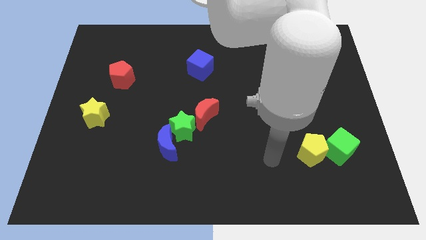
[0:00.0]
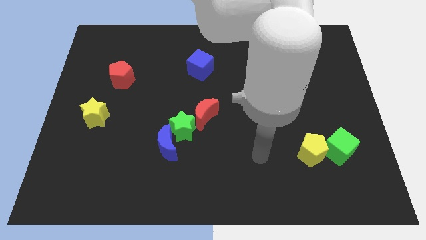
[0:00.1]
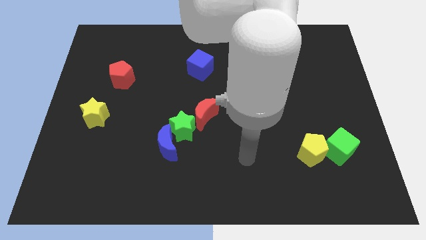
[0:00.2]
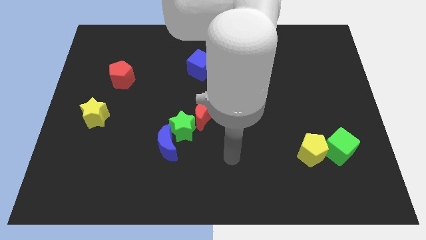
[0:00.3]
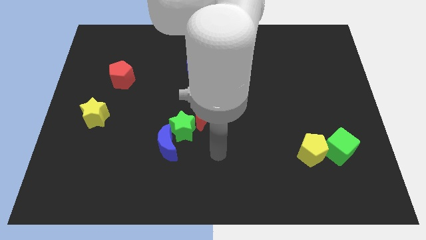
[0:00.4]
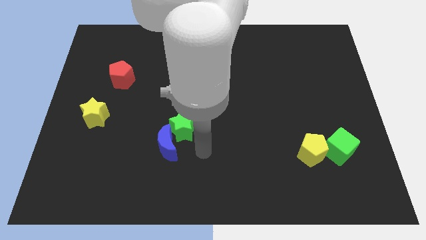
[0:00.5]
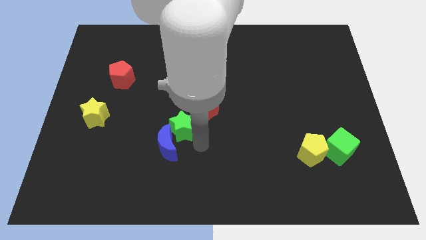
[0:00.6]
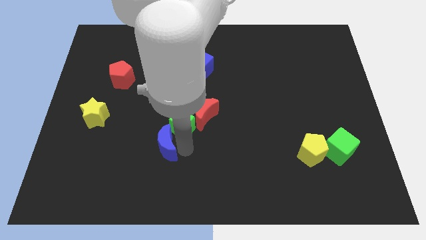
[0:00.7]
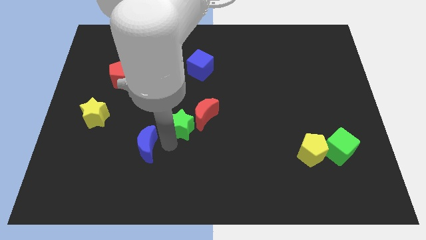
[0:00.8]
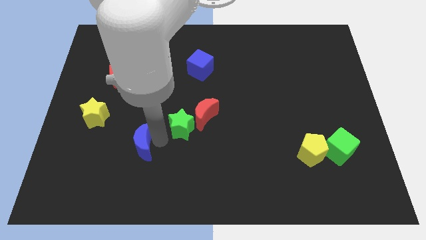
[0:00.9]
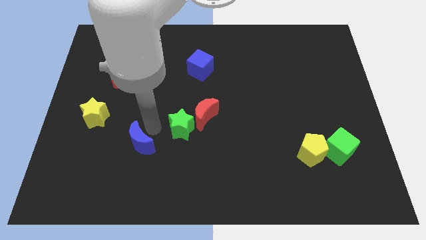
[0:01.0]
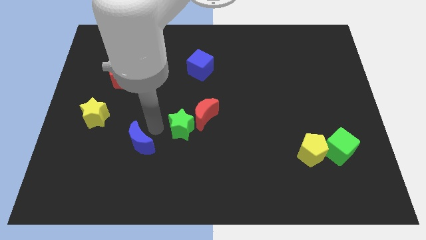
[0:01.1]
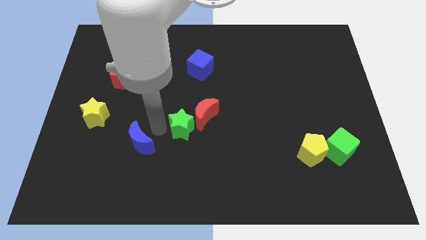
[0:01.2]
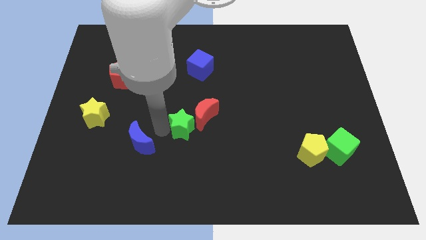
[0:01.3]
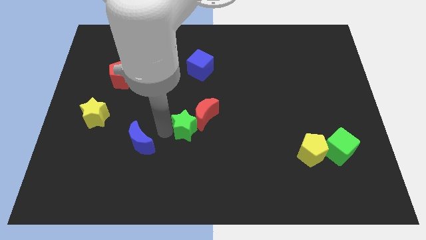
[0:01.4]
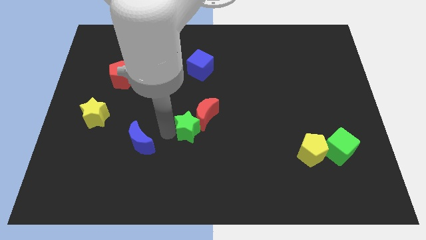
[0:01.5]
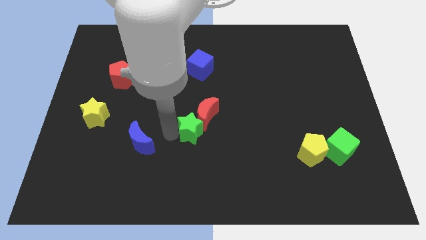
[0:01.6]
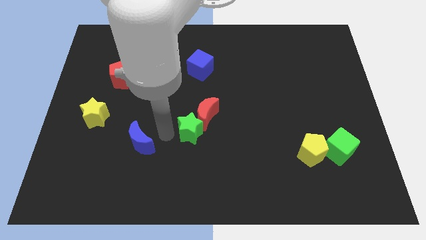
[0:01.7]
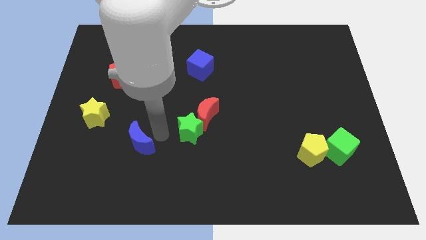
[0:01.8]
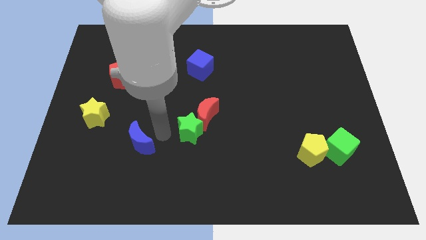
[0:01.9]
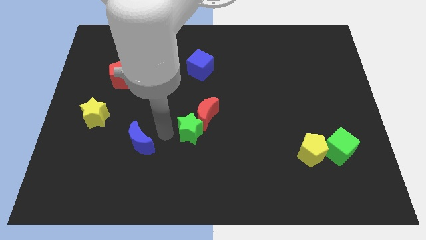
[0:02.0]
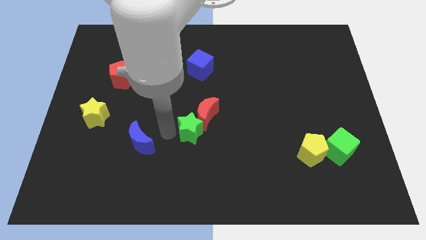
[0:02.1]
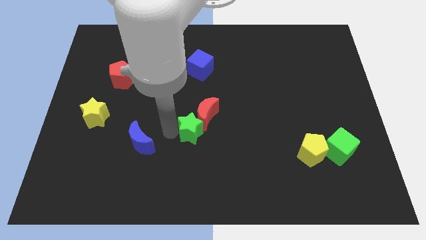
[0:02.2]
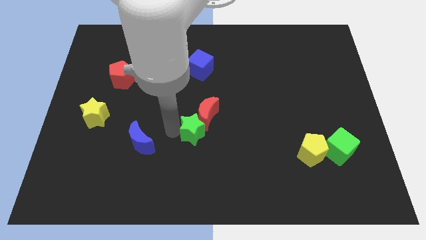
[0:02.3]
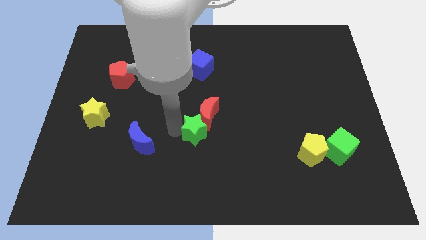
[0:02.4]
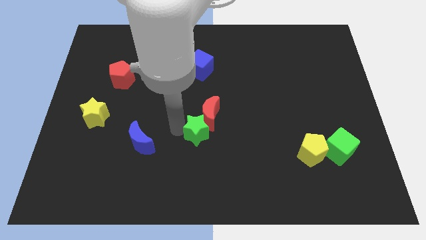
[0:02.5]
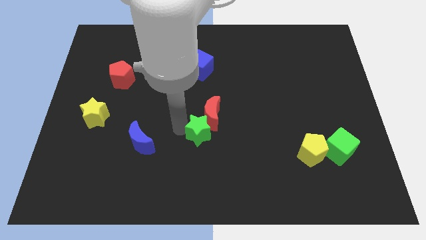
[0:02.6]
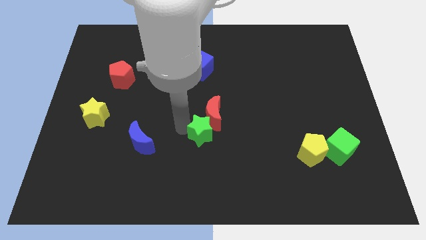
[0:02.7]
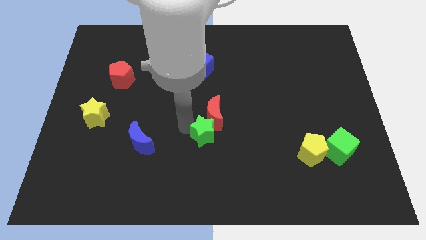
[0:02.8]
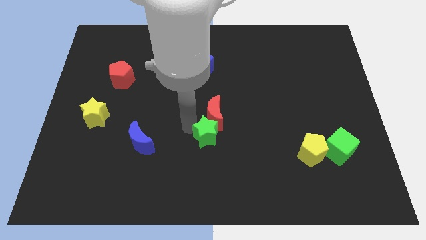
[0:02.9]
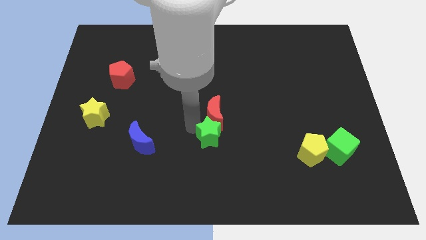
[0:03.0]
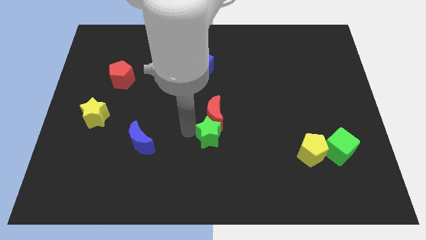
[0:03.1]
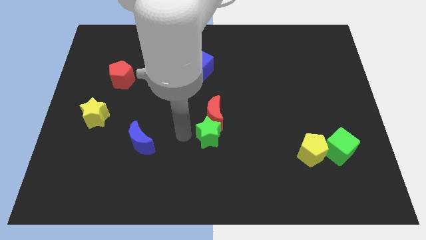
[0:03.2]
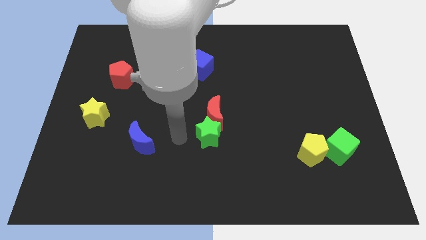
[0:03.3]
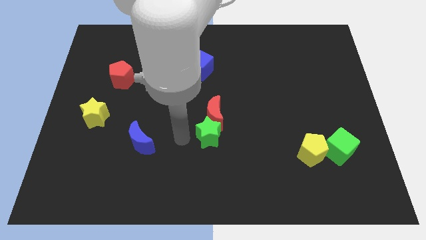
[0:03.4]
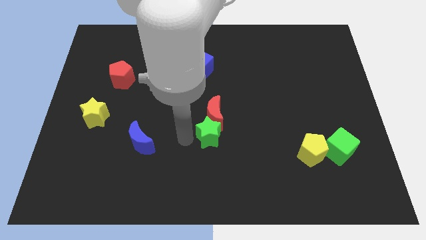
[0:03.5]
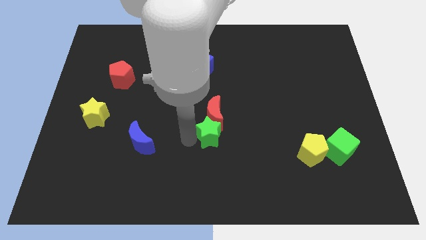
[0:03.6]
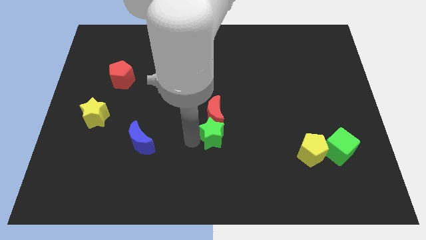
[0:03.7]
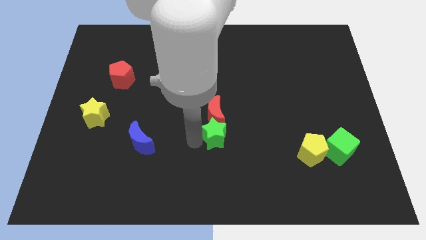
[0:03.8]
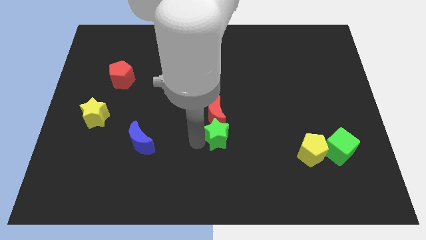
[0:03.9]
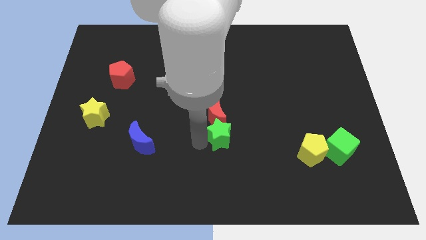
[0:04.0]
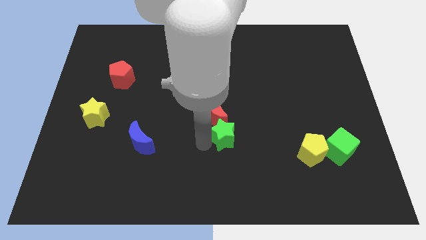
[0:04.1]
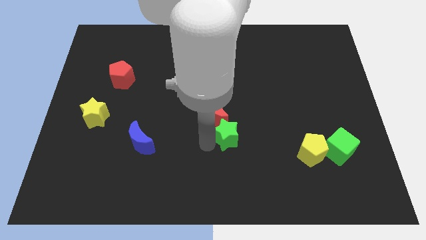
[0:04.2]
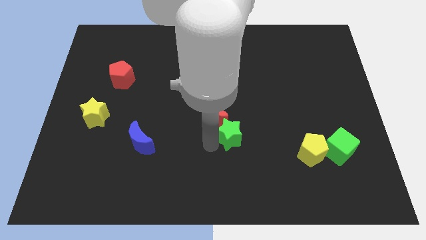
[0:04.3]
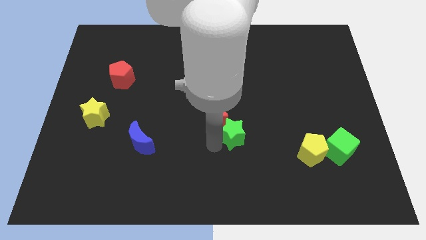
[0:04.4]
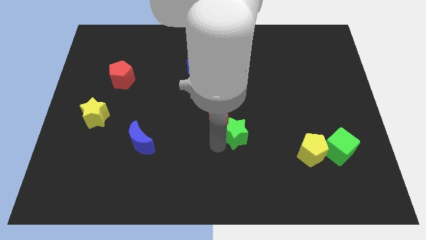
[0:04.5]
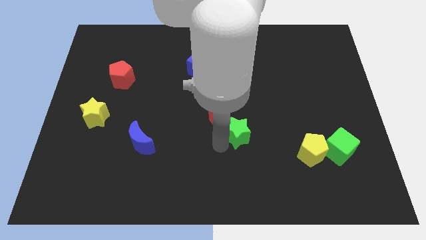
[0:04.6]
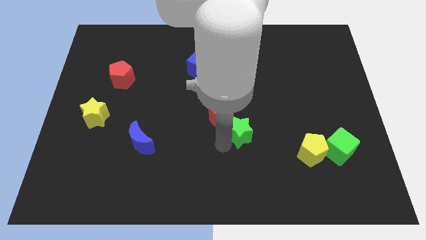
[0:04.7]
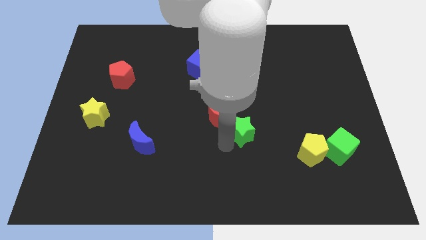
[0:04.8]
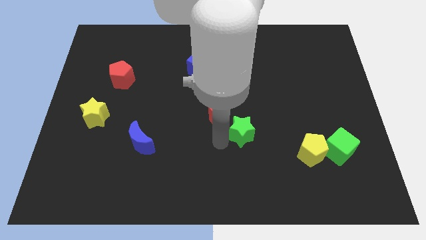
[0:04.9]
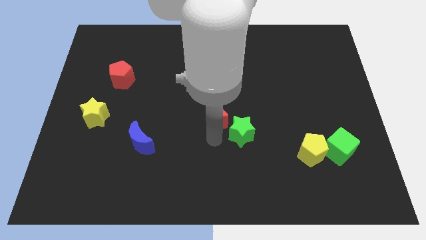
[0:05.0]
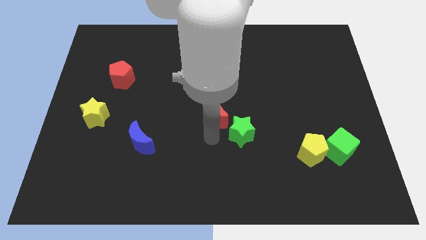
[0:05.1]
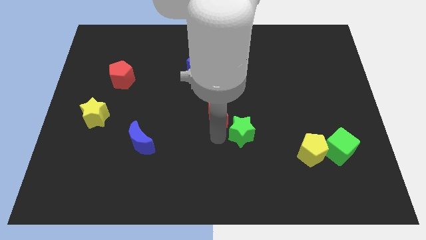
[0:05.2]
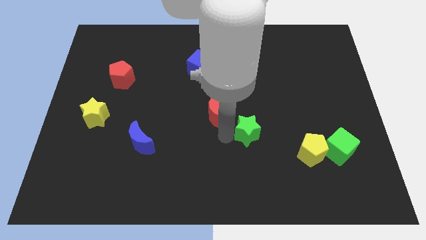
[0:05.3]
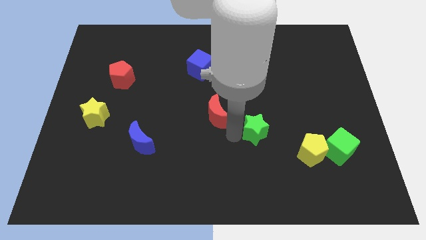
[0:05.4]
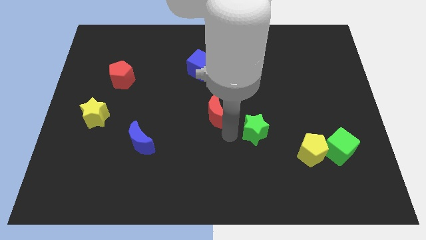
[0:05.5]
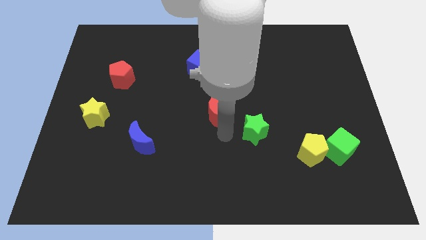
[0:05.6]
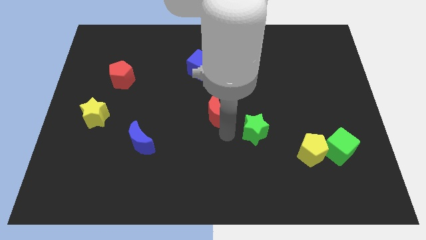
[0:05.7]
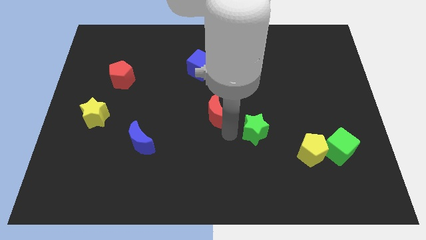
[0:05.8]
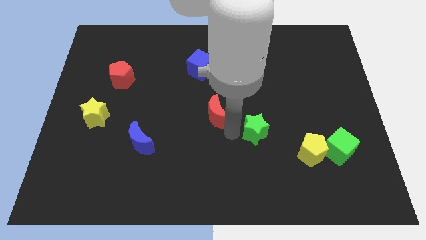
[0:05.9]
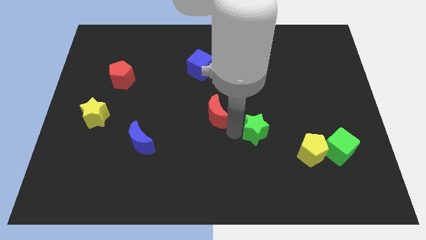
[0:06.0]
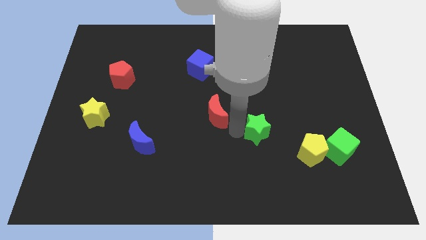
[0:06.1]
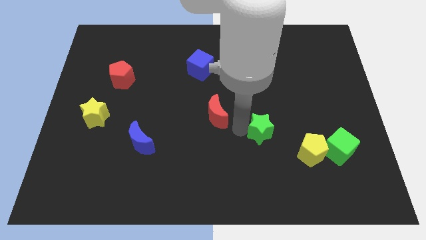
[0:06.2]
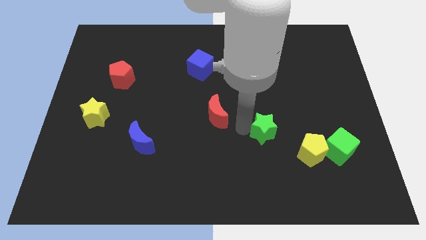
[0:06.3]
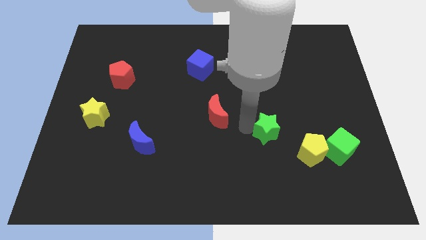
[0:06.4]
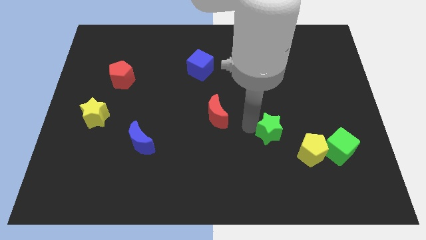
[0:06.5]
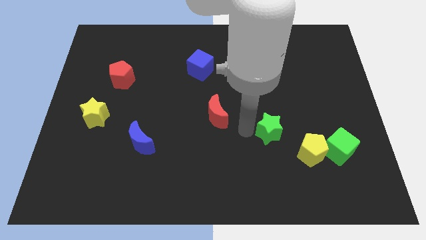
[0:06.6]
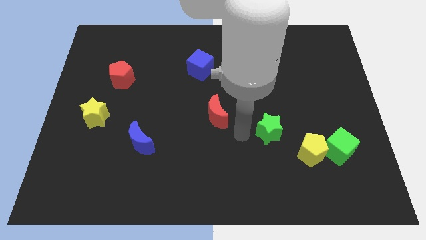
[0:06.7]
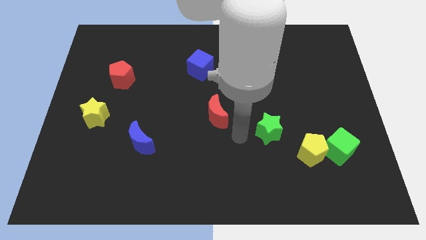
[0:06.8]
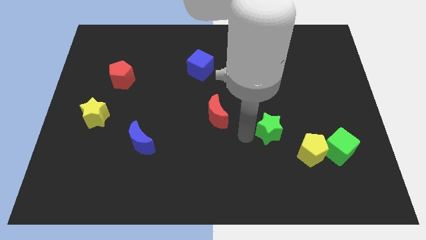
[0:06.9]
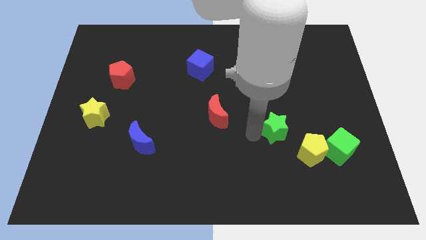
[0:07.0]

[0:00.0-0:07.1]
push the green star to the right

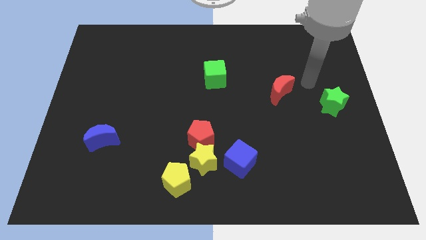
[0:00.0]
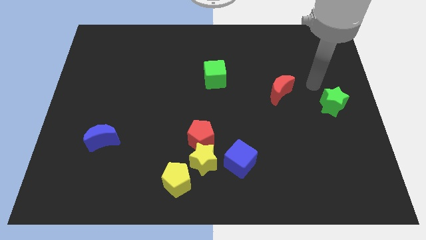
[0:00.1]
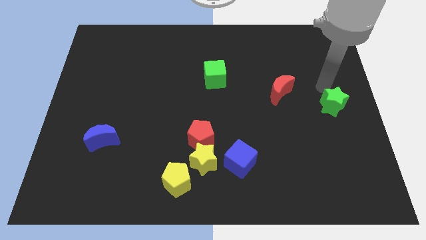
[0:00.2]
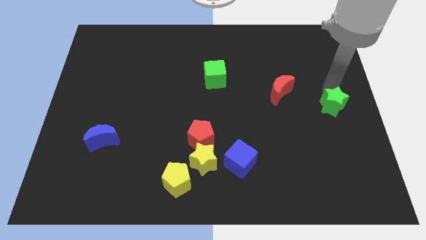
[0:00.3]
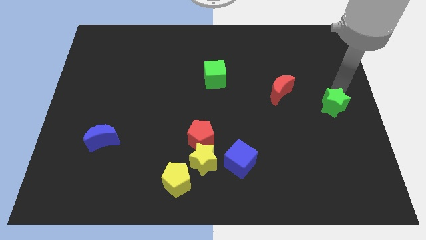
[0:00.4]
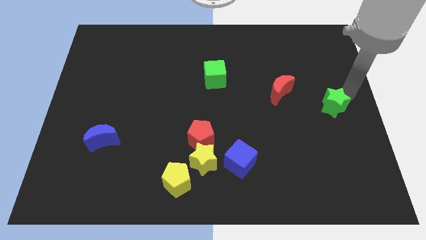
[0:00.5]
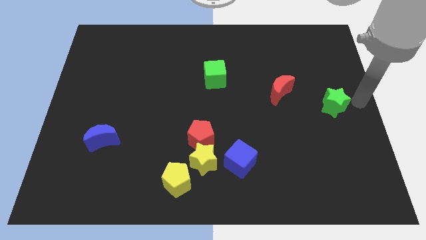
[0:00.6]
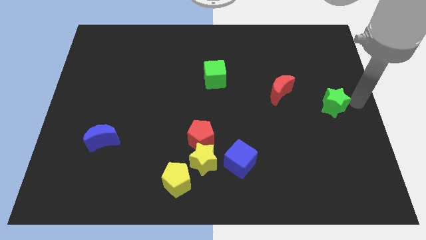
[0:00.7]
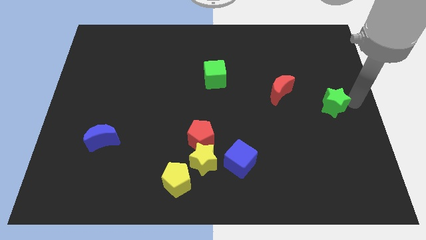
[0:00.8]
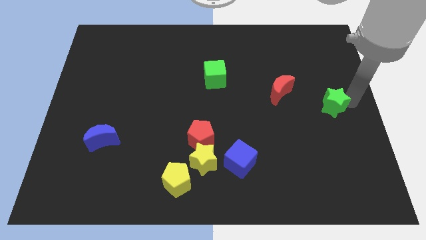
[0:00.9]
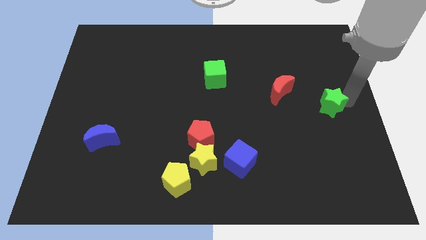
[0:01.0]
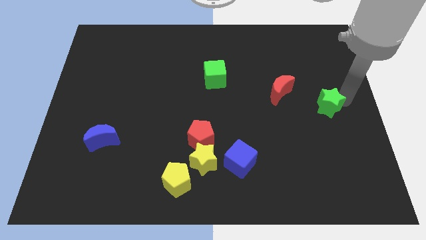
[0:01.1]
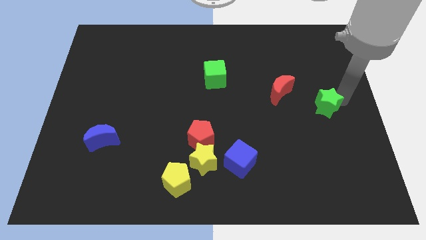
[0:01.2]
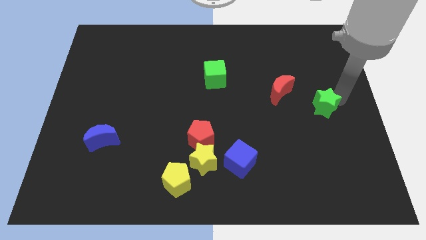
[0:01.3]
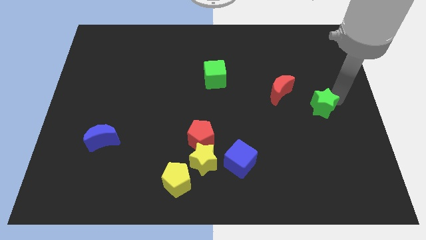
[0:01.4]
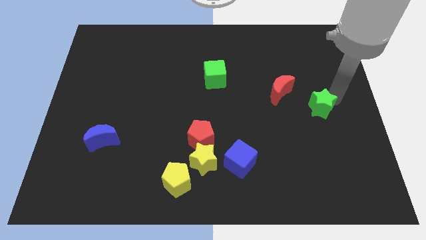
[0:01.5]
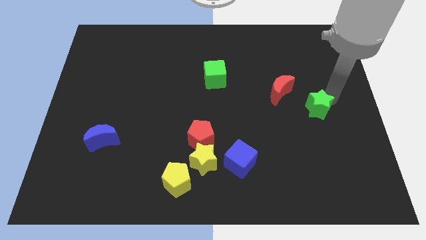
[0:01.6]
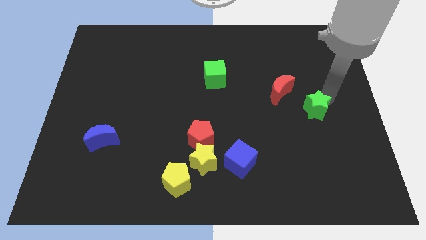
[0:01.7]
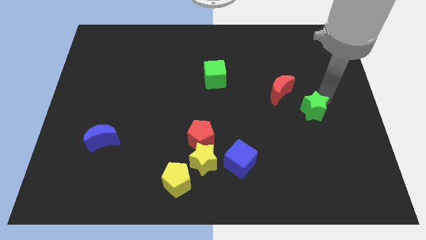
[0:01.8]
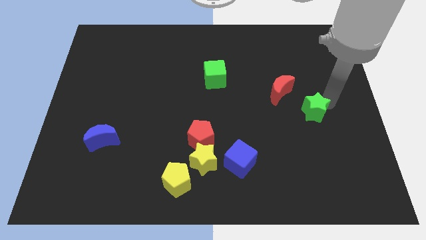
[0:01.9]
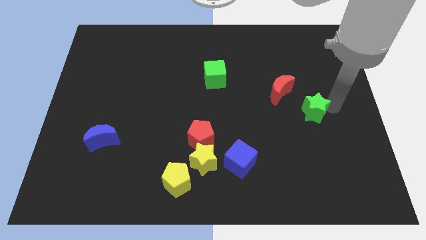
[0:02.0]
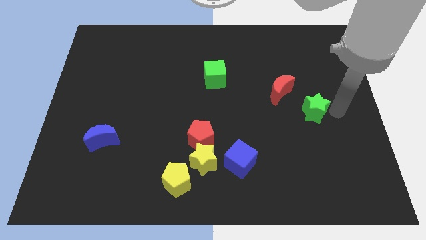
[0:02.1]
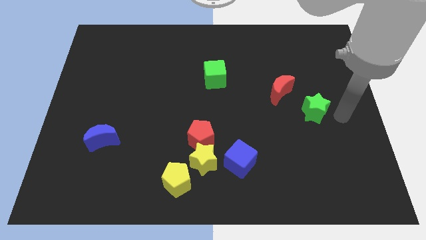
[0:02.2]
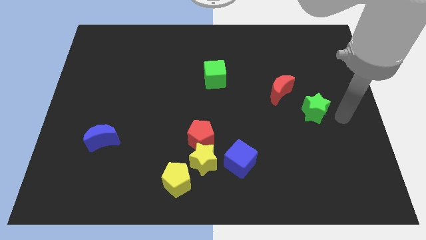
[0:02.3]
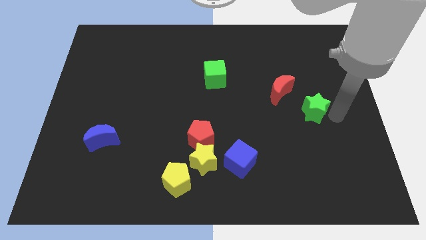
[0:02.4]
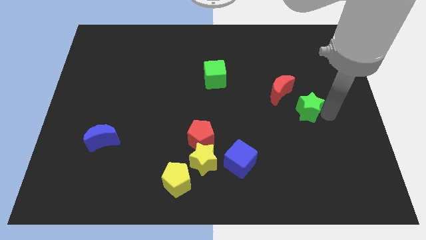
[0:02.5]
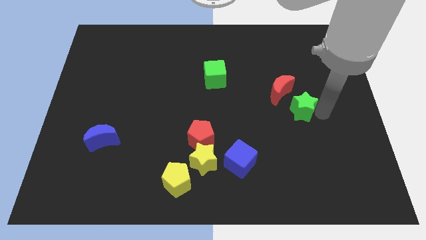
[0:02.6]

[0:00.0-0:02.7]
slide the green star slightly left
